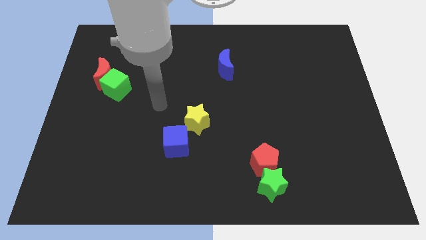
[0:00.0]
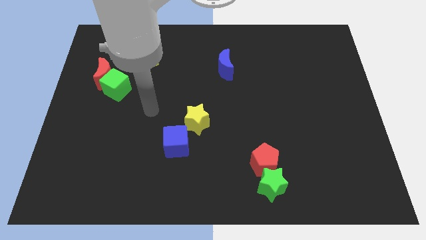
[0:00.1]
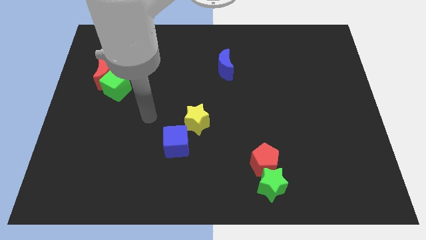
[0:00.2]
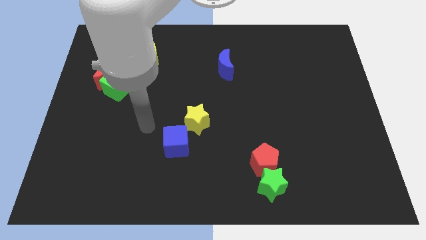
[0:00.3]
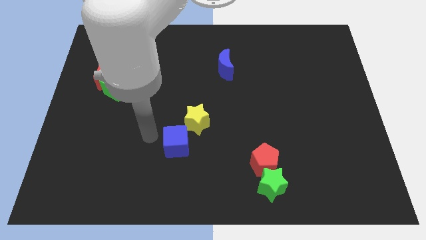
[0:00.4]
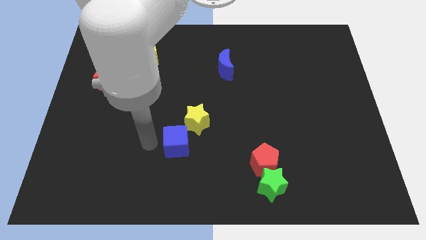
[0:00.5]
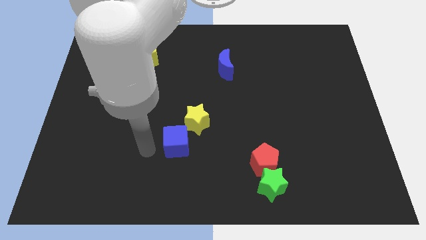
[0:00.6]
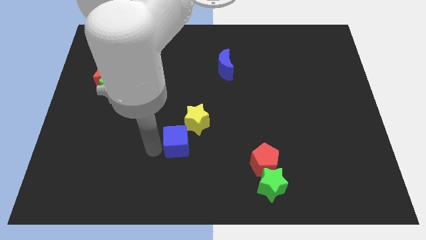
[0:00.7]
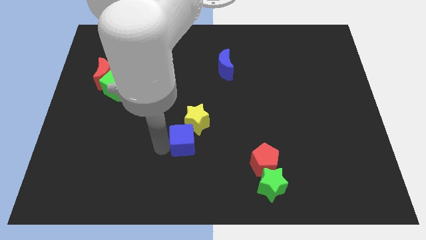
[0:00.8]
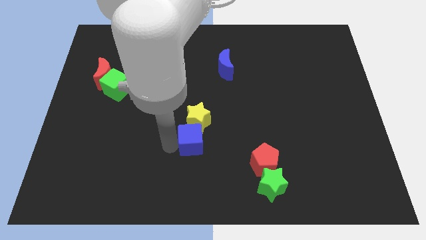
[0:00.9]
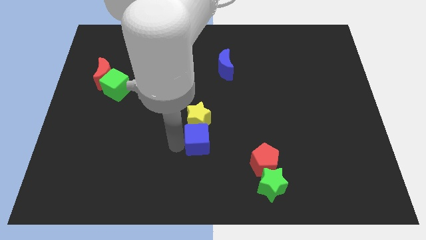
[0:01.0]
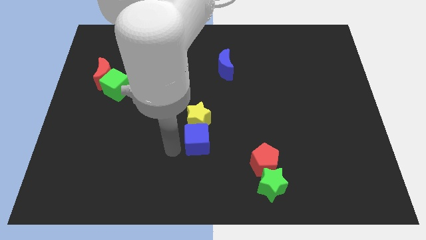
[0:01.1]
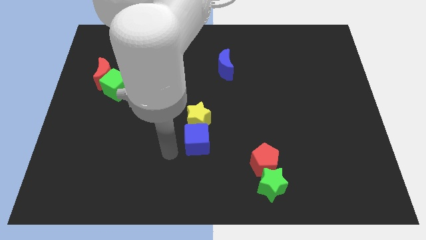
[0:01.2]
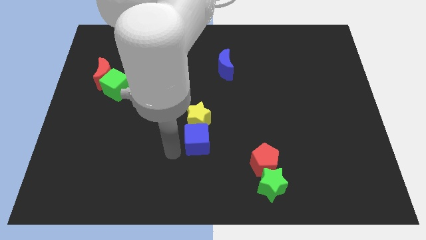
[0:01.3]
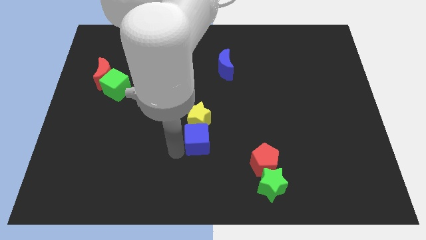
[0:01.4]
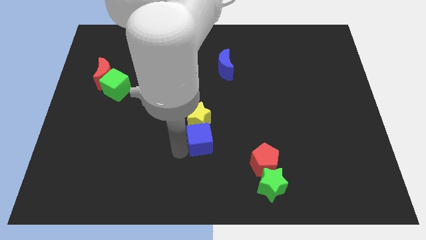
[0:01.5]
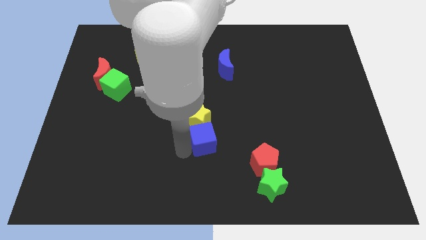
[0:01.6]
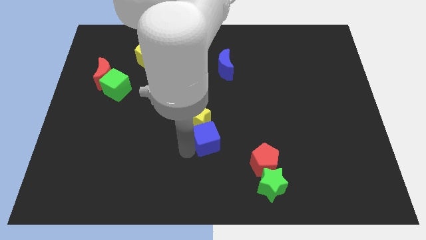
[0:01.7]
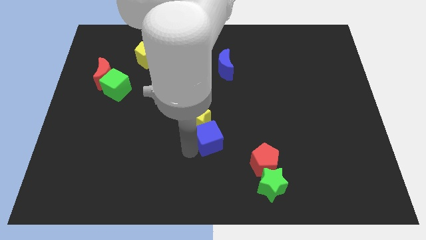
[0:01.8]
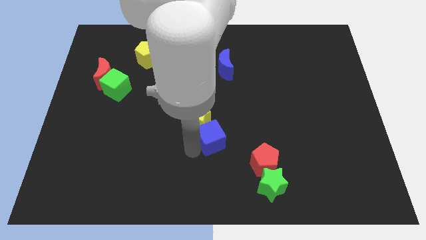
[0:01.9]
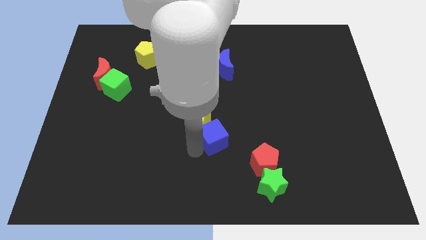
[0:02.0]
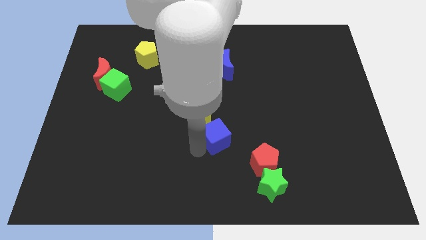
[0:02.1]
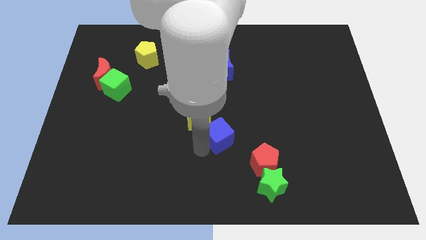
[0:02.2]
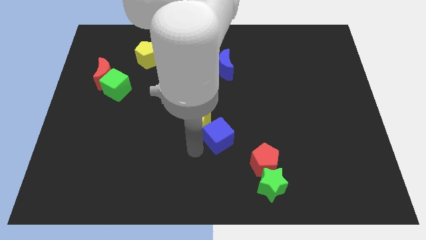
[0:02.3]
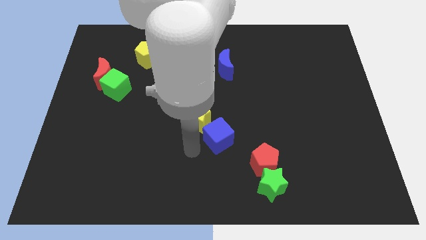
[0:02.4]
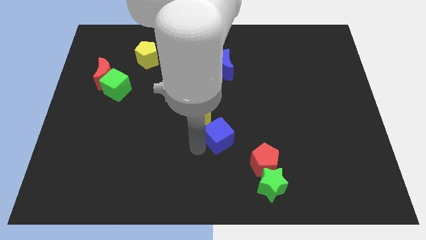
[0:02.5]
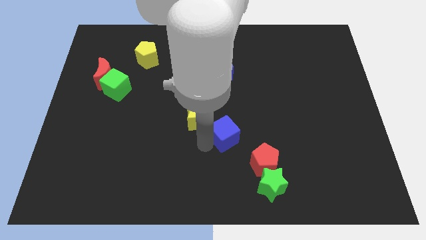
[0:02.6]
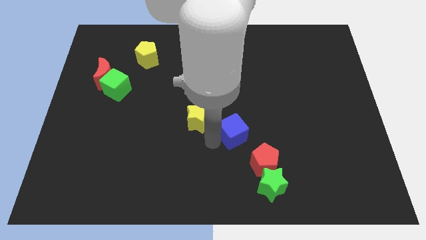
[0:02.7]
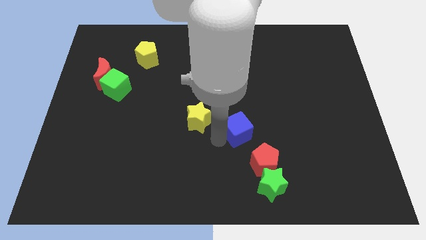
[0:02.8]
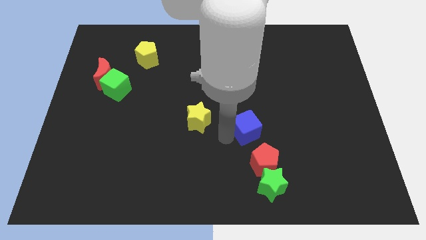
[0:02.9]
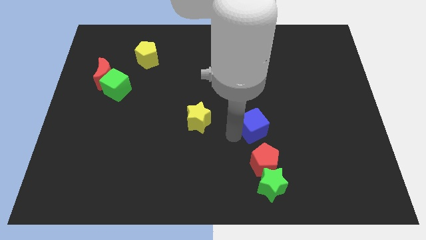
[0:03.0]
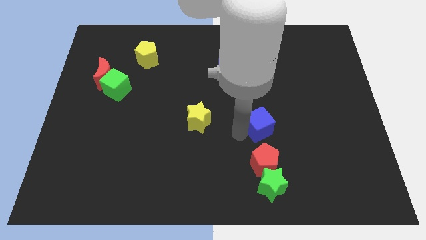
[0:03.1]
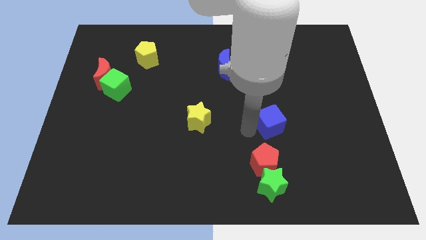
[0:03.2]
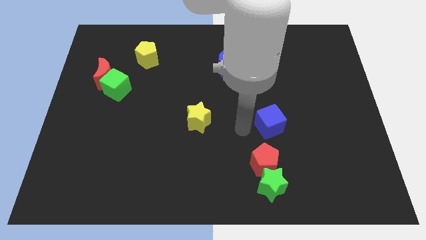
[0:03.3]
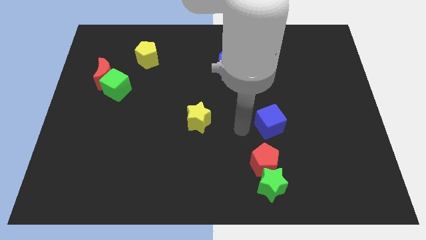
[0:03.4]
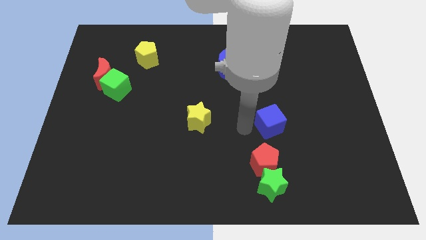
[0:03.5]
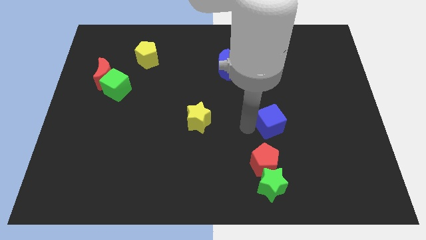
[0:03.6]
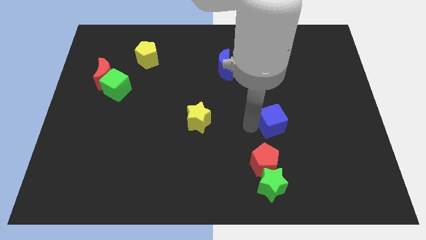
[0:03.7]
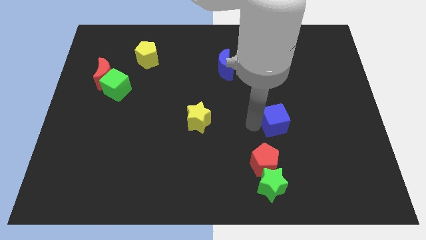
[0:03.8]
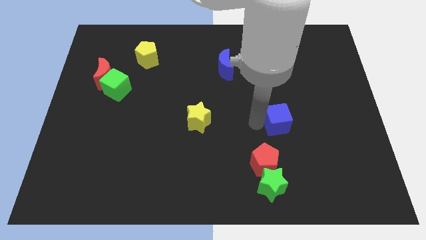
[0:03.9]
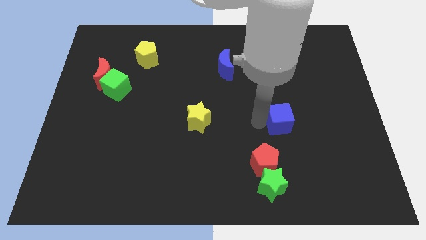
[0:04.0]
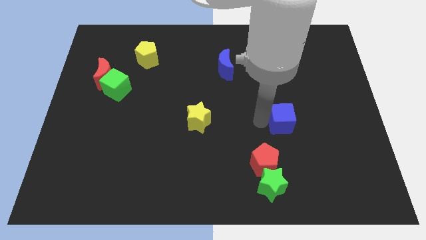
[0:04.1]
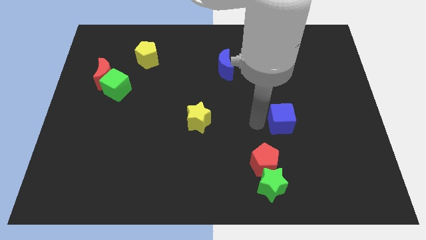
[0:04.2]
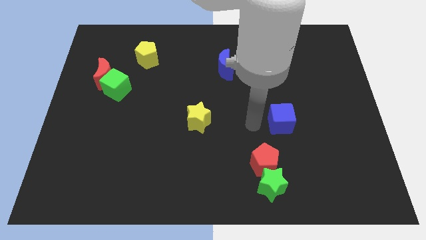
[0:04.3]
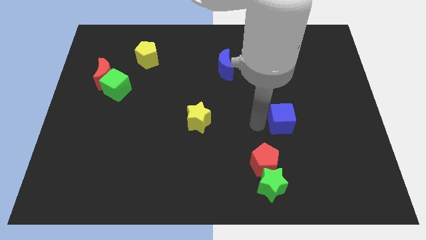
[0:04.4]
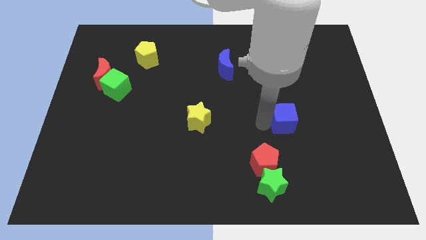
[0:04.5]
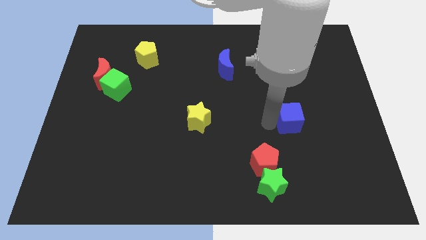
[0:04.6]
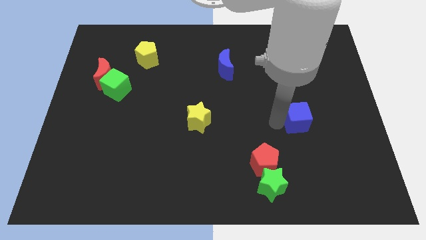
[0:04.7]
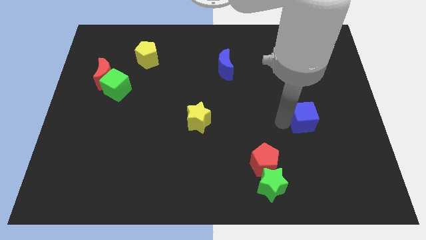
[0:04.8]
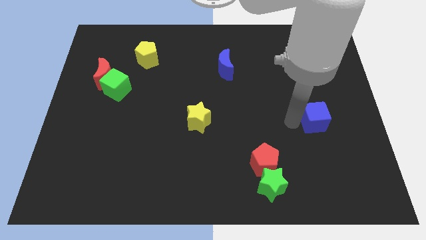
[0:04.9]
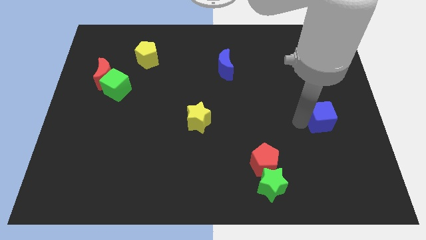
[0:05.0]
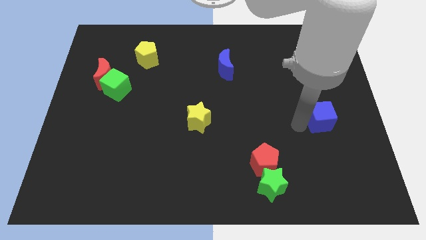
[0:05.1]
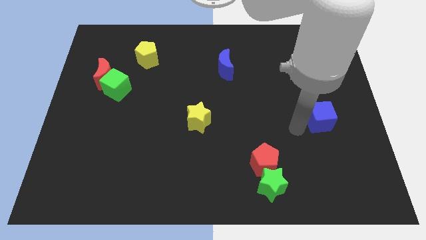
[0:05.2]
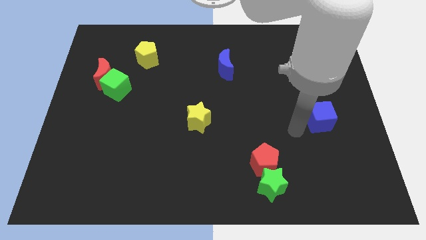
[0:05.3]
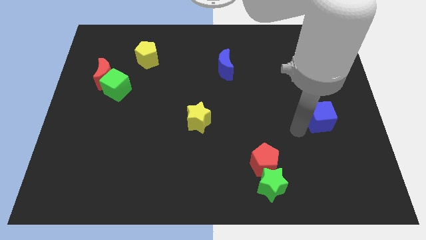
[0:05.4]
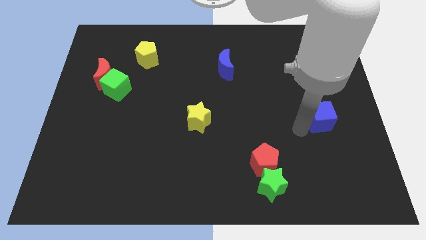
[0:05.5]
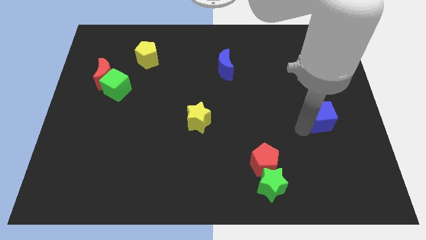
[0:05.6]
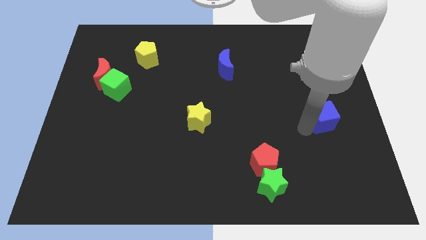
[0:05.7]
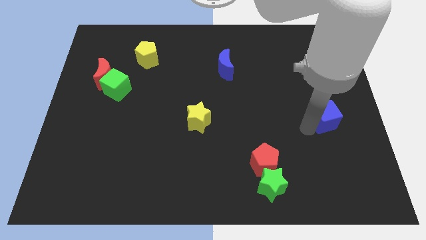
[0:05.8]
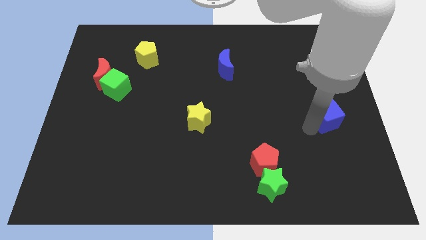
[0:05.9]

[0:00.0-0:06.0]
move the blue cube to the right side of the board
